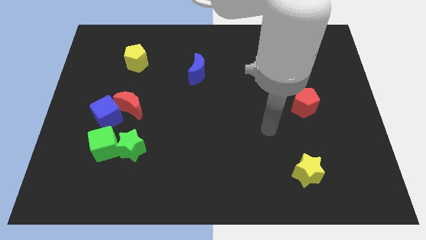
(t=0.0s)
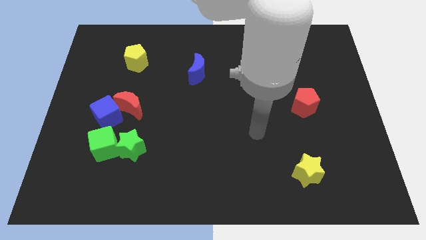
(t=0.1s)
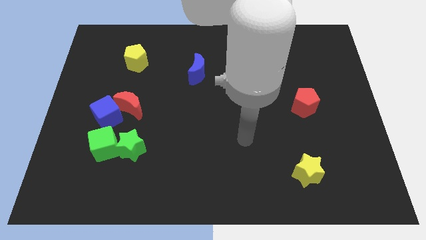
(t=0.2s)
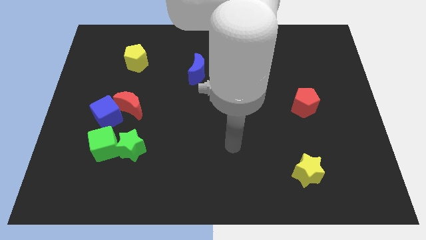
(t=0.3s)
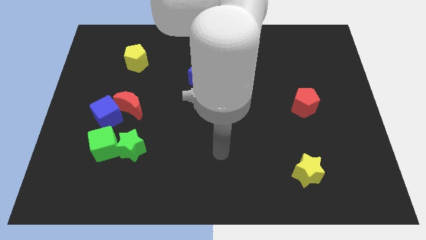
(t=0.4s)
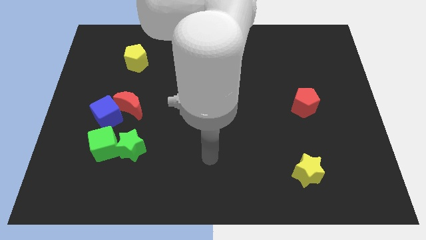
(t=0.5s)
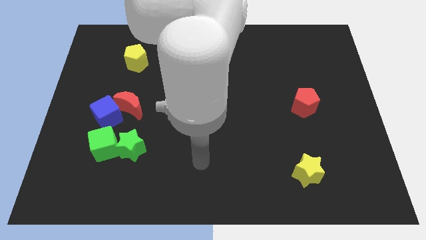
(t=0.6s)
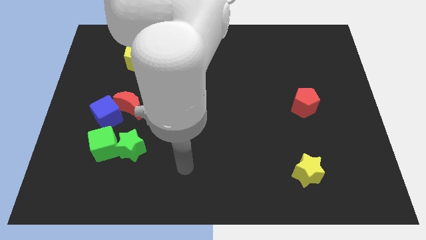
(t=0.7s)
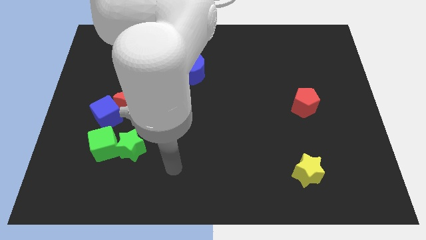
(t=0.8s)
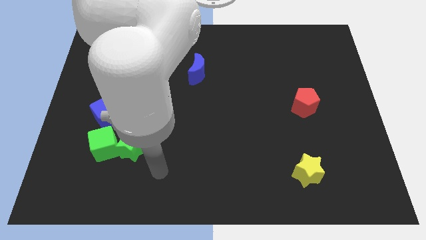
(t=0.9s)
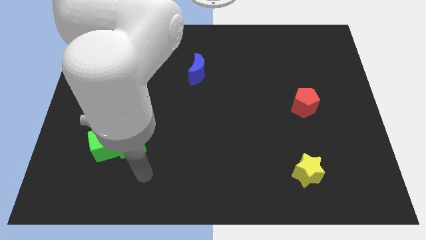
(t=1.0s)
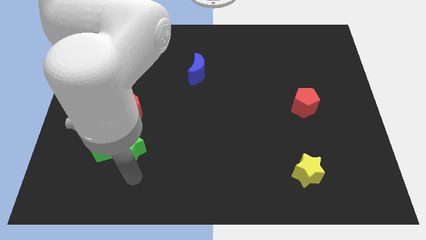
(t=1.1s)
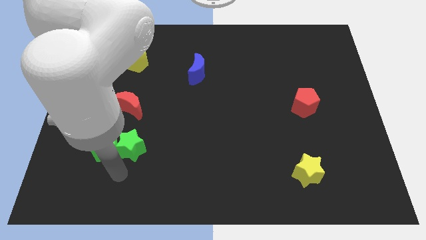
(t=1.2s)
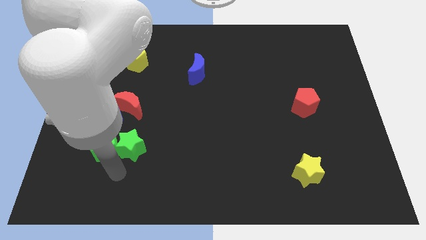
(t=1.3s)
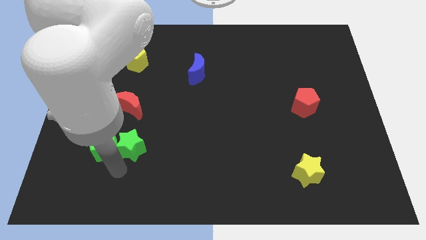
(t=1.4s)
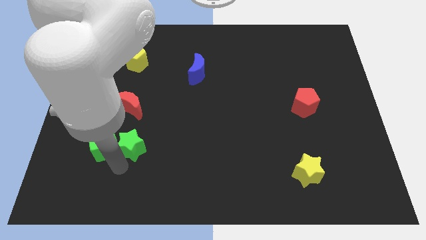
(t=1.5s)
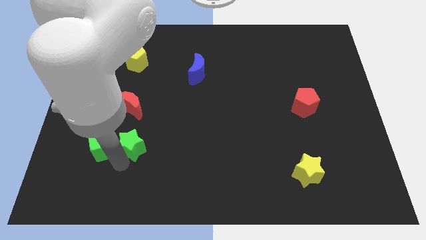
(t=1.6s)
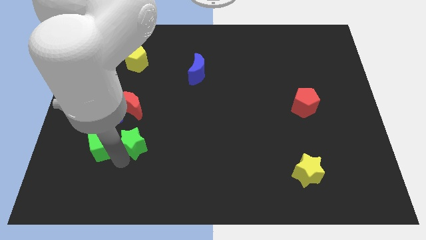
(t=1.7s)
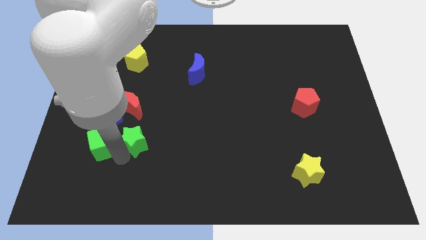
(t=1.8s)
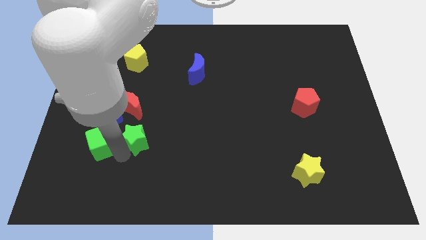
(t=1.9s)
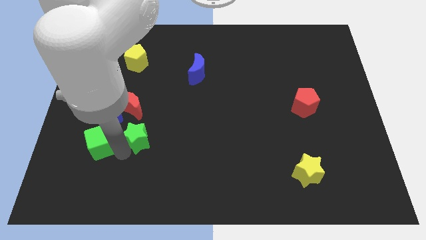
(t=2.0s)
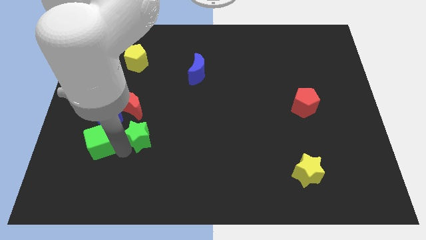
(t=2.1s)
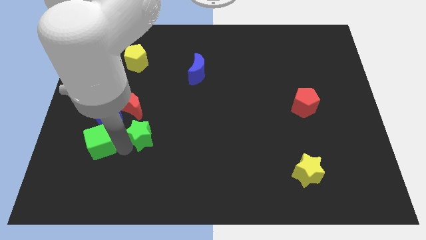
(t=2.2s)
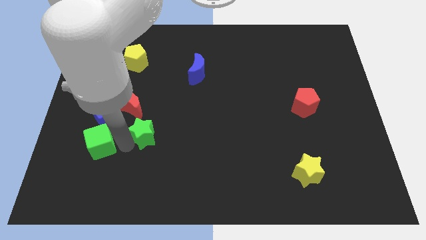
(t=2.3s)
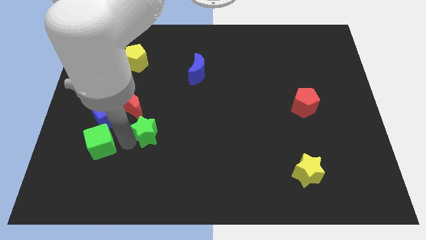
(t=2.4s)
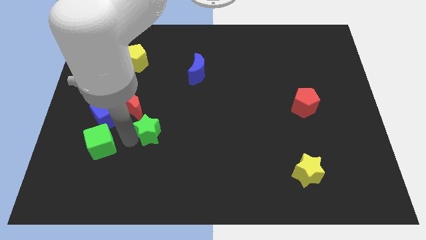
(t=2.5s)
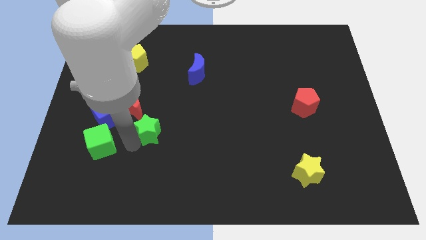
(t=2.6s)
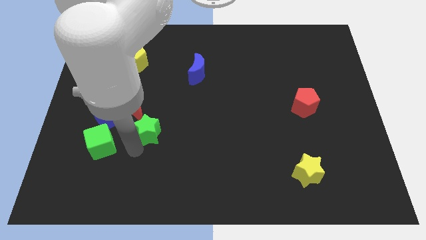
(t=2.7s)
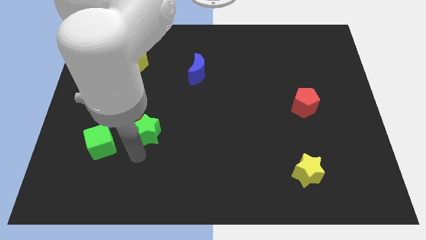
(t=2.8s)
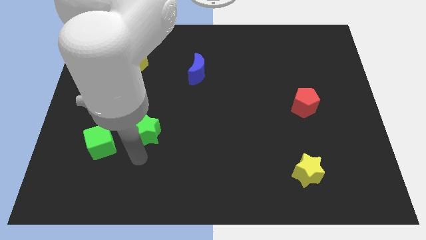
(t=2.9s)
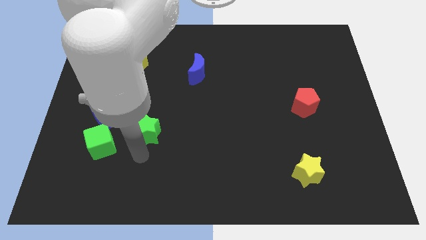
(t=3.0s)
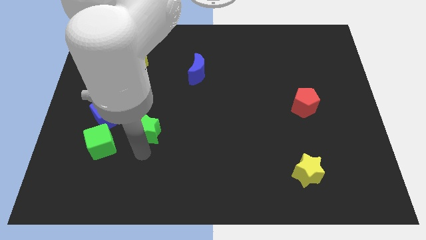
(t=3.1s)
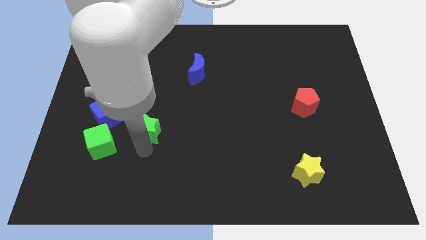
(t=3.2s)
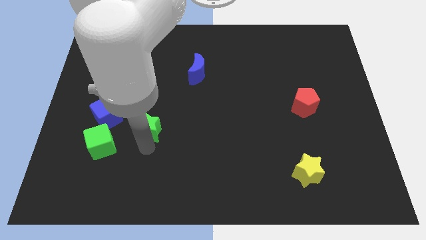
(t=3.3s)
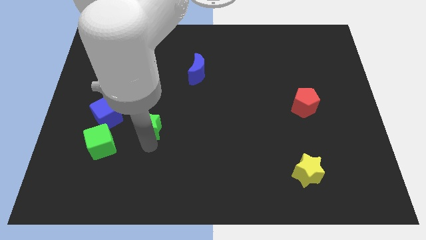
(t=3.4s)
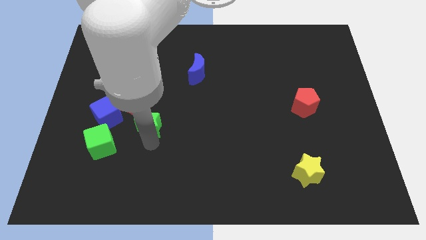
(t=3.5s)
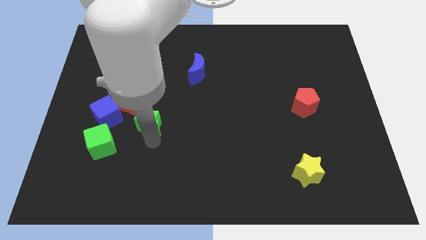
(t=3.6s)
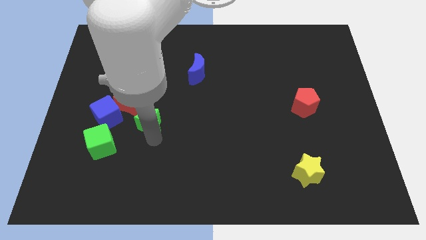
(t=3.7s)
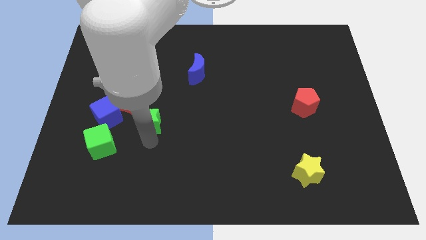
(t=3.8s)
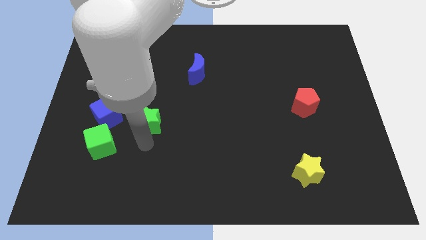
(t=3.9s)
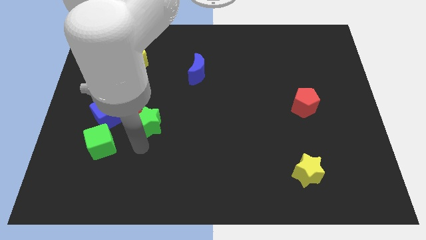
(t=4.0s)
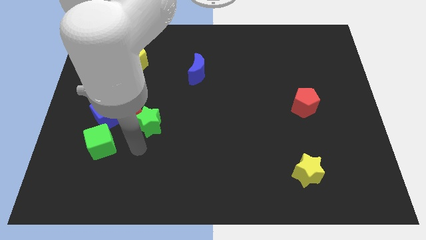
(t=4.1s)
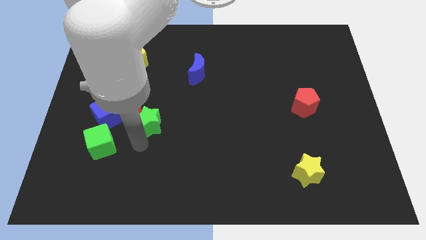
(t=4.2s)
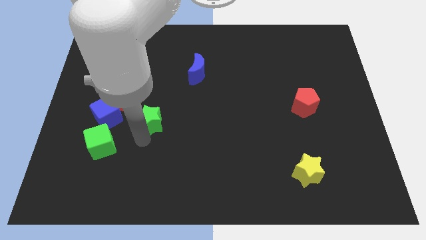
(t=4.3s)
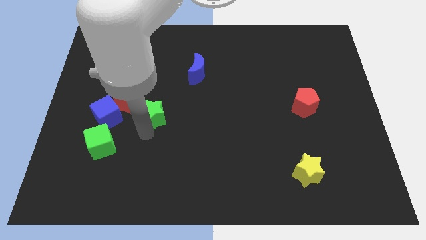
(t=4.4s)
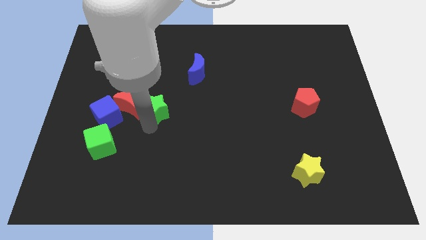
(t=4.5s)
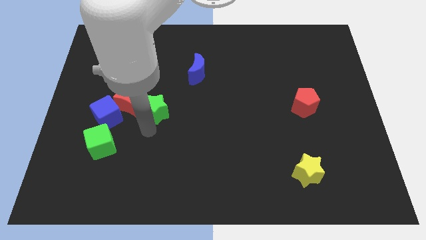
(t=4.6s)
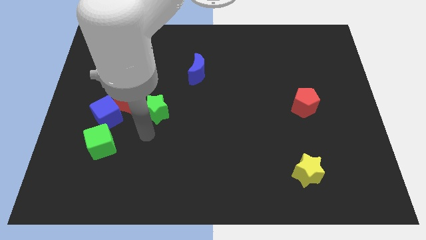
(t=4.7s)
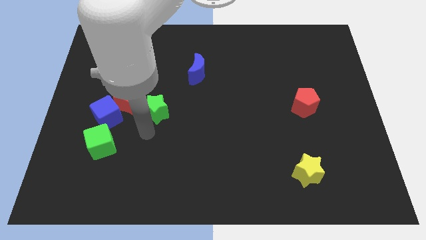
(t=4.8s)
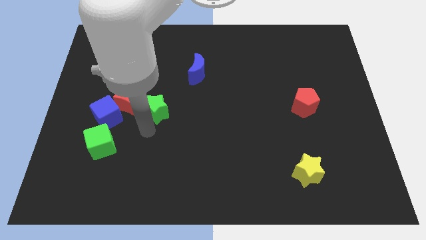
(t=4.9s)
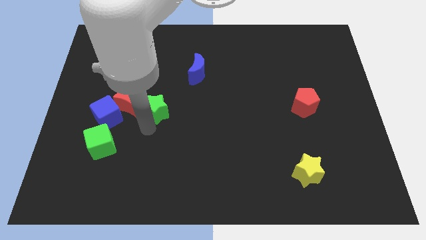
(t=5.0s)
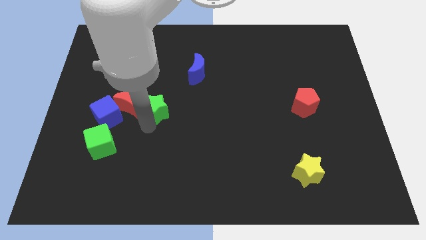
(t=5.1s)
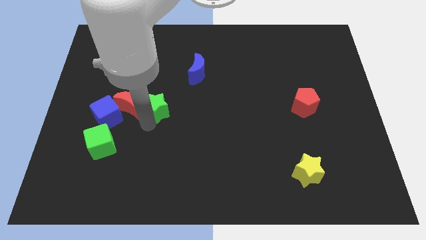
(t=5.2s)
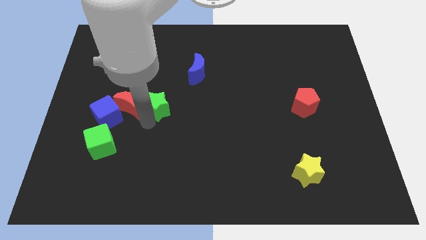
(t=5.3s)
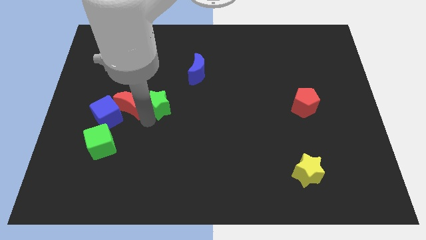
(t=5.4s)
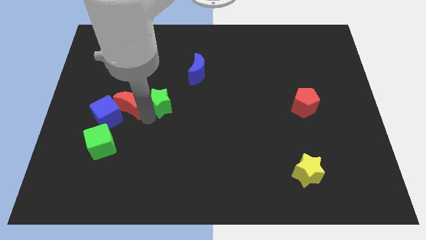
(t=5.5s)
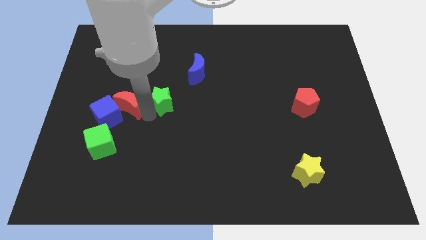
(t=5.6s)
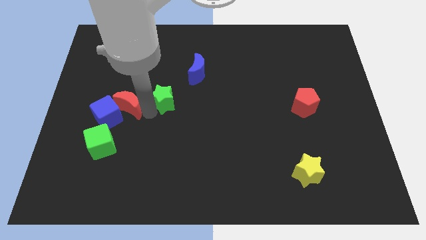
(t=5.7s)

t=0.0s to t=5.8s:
push the green star to the bottom left side of the blue moon

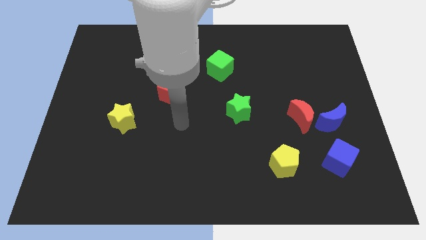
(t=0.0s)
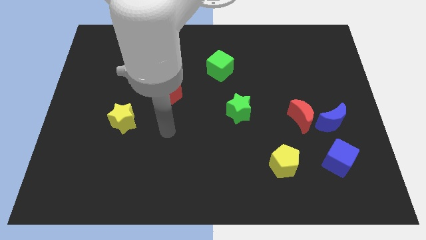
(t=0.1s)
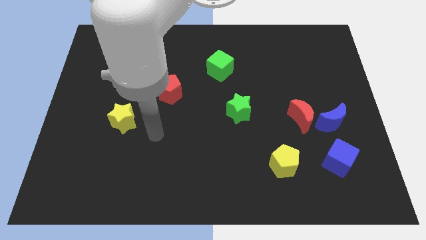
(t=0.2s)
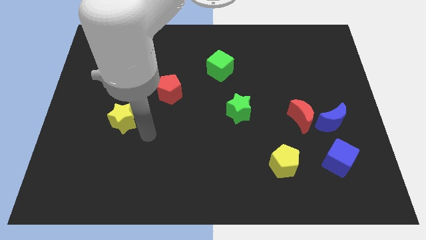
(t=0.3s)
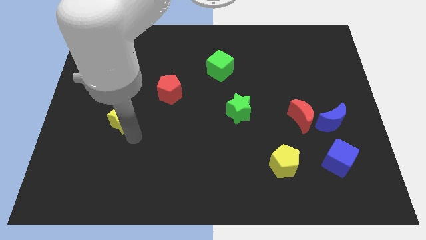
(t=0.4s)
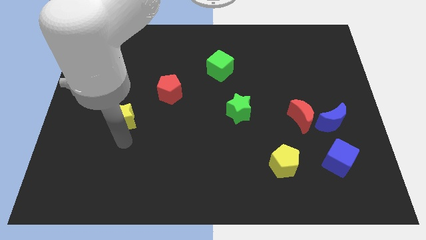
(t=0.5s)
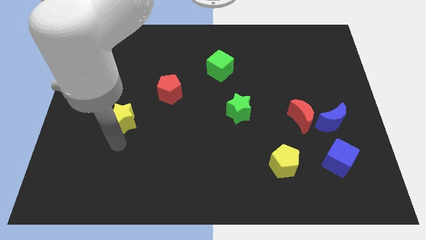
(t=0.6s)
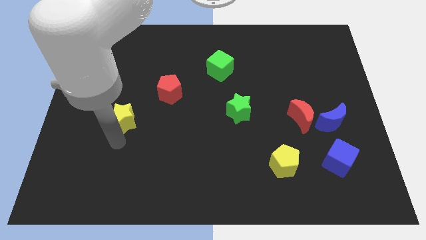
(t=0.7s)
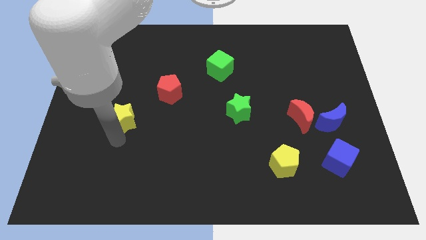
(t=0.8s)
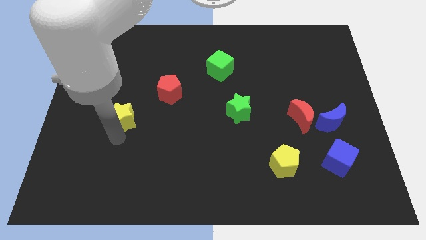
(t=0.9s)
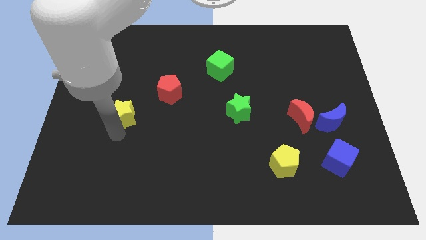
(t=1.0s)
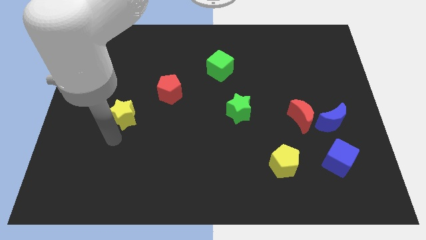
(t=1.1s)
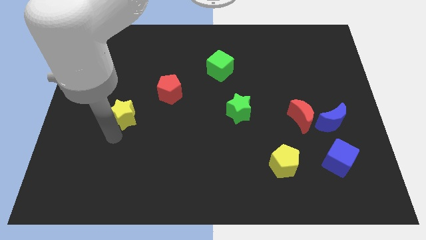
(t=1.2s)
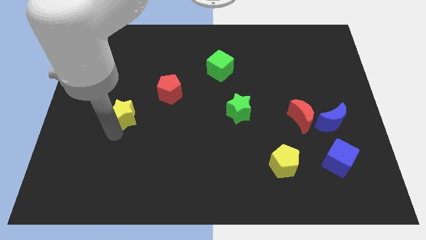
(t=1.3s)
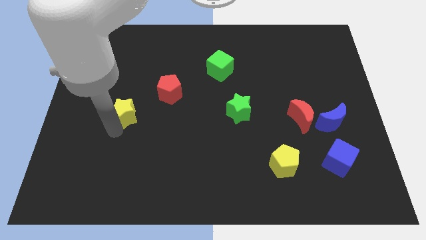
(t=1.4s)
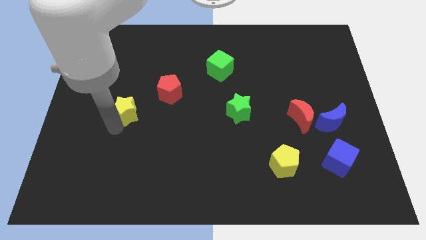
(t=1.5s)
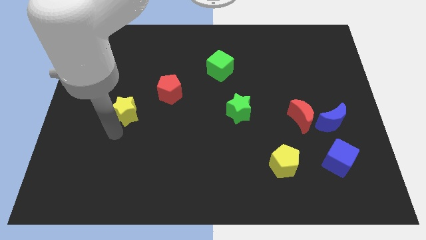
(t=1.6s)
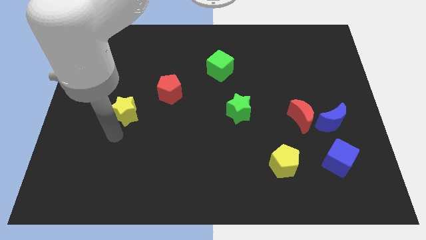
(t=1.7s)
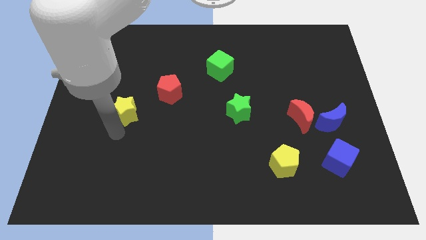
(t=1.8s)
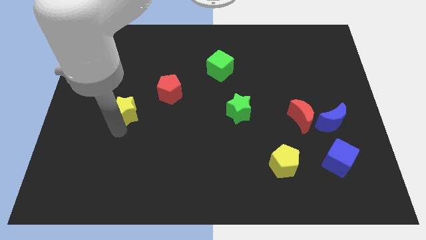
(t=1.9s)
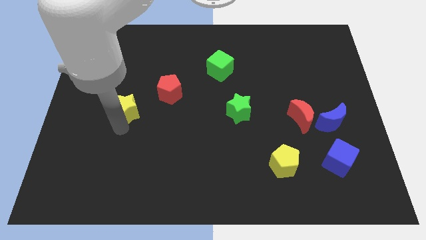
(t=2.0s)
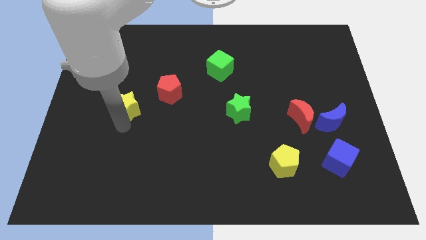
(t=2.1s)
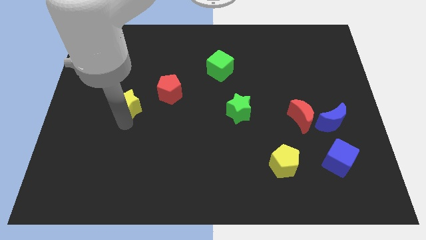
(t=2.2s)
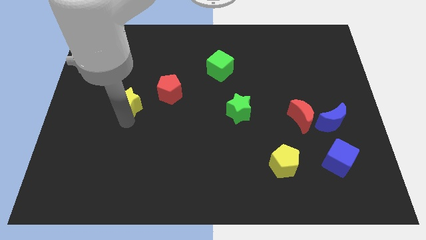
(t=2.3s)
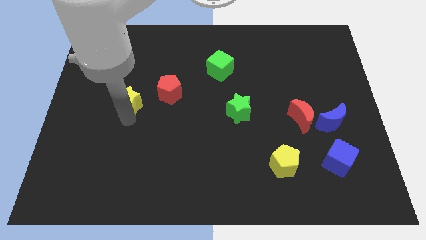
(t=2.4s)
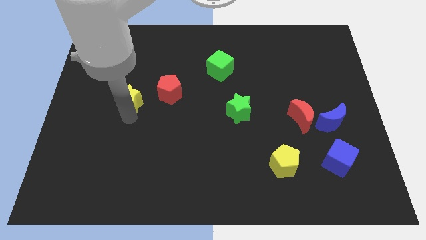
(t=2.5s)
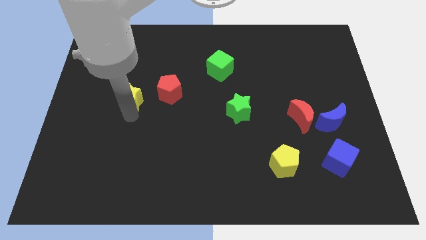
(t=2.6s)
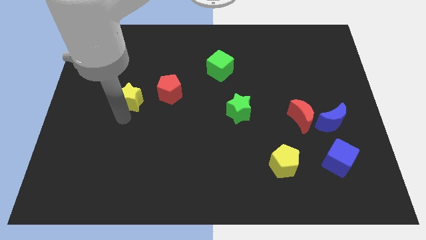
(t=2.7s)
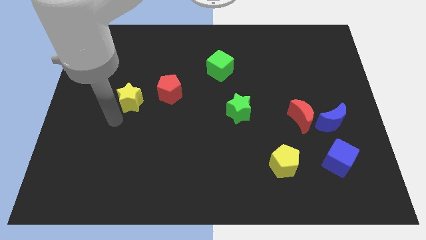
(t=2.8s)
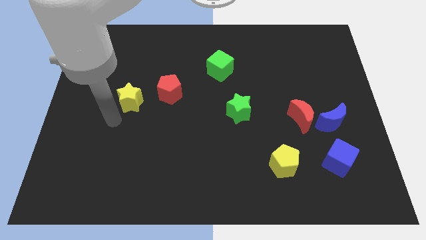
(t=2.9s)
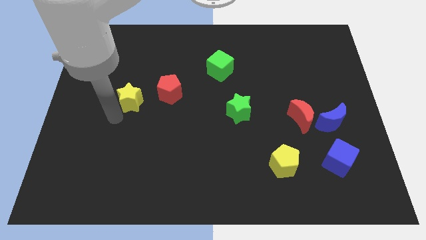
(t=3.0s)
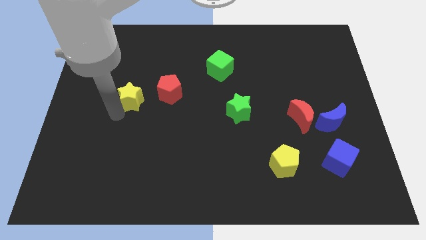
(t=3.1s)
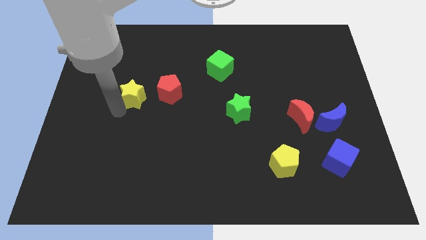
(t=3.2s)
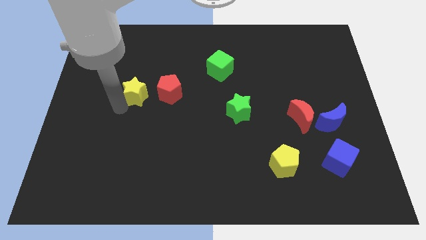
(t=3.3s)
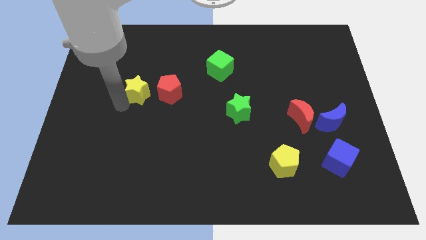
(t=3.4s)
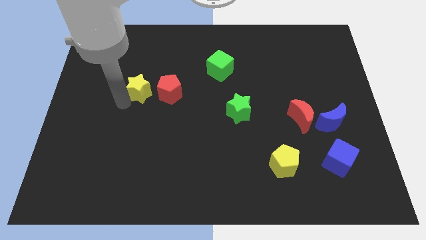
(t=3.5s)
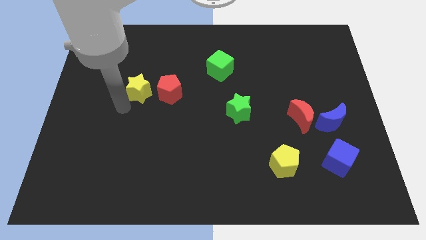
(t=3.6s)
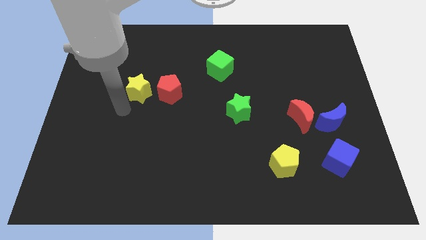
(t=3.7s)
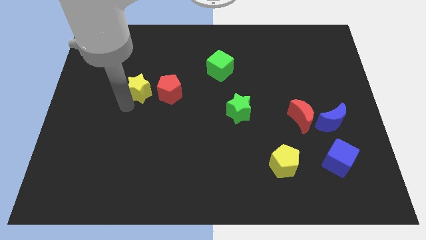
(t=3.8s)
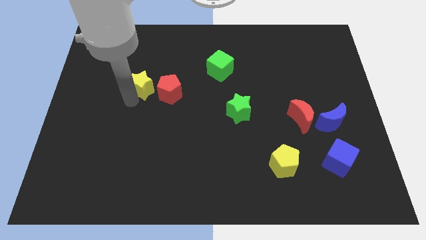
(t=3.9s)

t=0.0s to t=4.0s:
move the yellow star diagonally up and to the left of the red pentagon